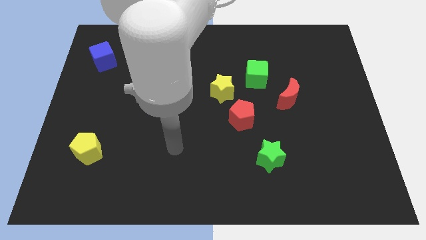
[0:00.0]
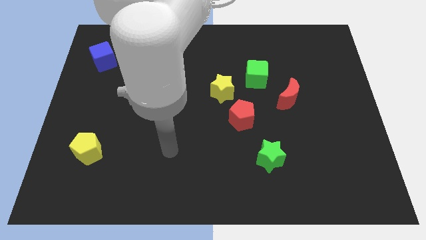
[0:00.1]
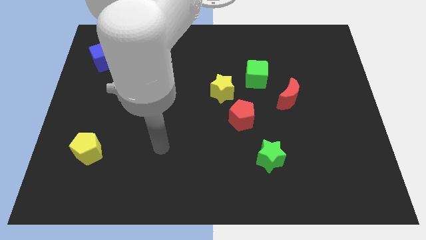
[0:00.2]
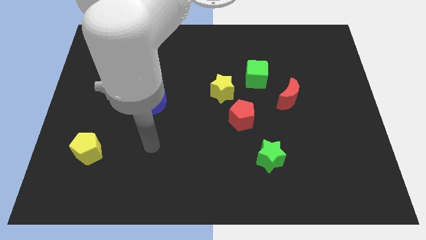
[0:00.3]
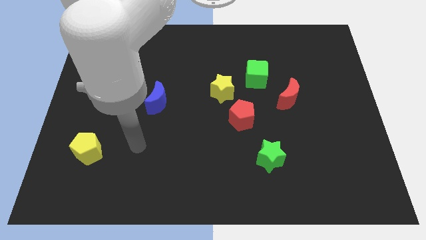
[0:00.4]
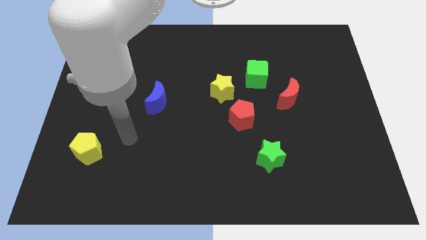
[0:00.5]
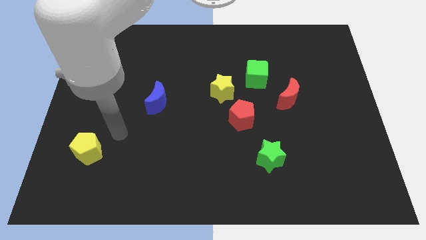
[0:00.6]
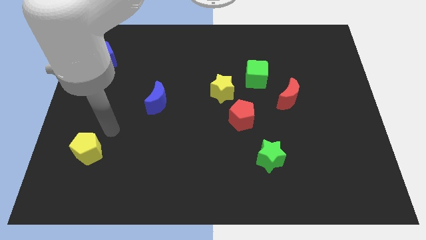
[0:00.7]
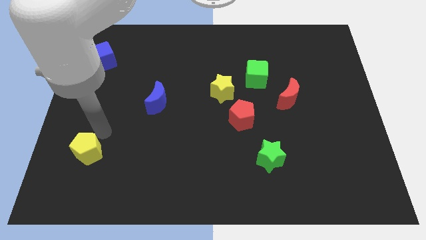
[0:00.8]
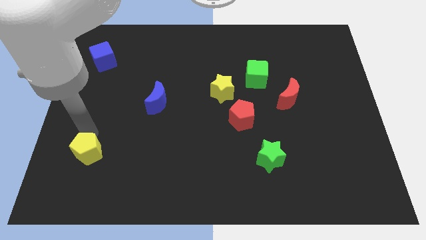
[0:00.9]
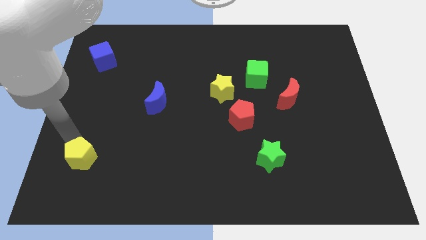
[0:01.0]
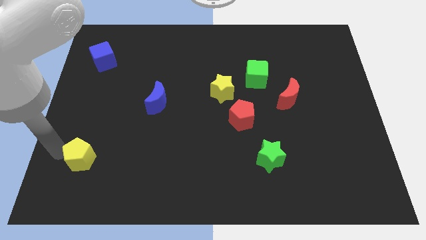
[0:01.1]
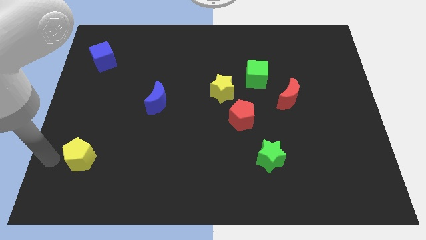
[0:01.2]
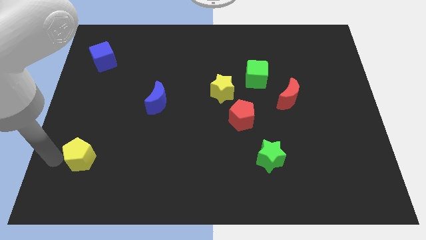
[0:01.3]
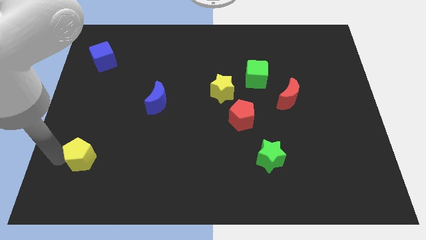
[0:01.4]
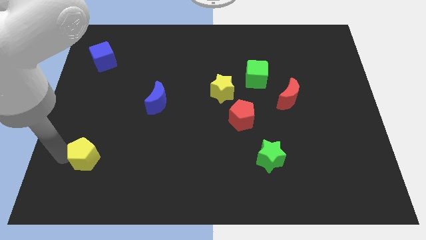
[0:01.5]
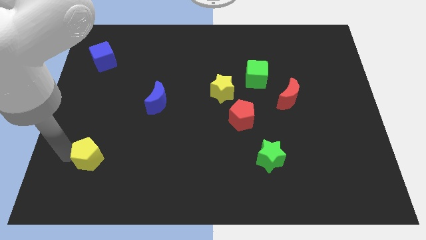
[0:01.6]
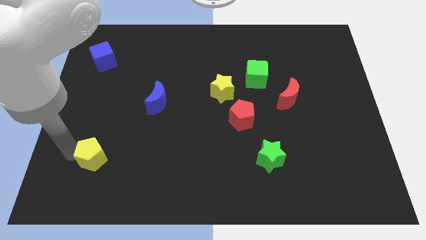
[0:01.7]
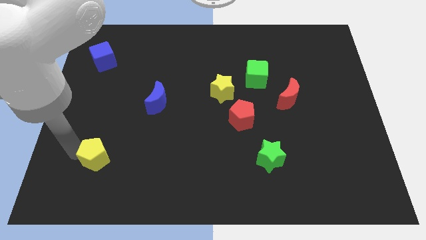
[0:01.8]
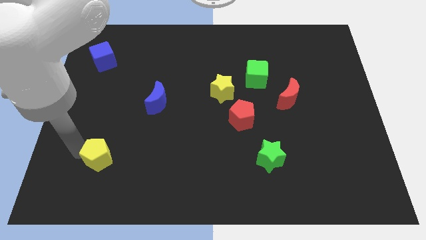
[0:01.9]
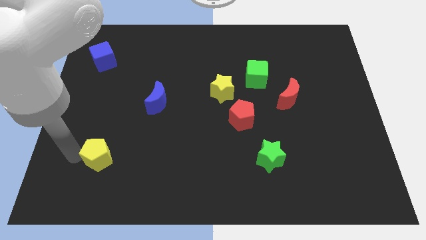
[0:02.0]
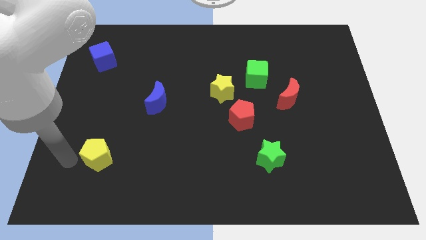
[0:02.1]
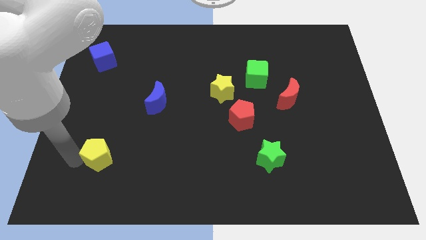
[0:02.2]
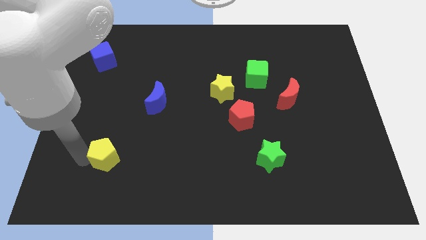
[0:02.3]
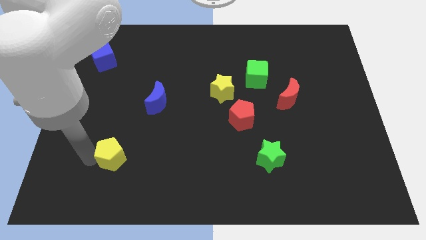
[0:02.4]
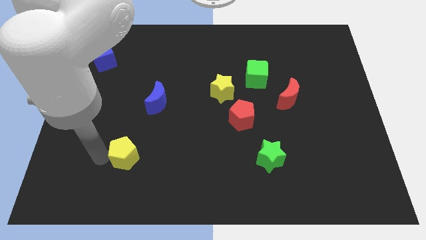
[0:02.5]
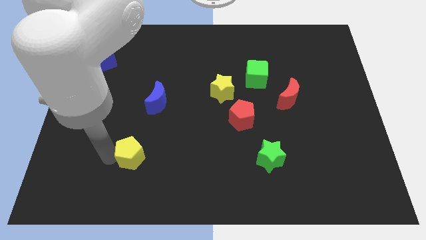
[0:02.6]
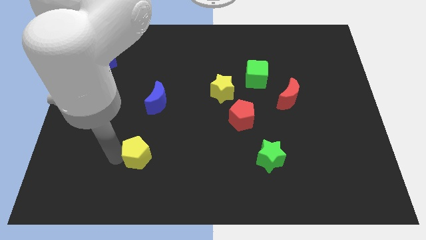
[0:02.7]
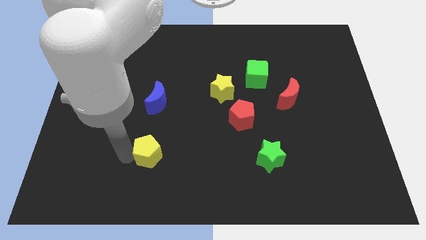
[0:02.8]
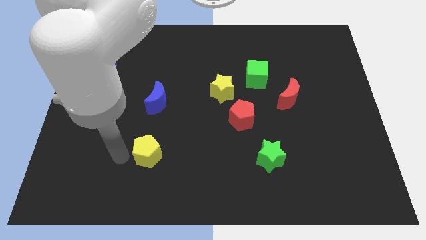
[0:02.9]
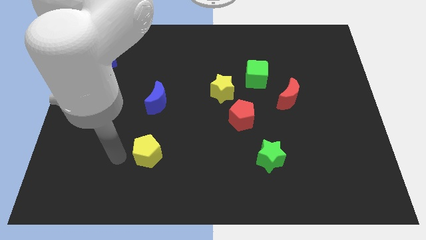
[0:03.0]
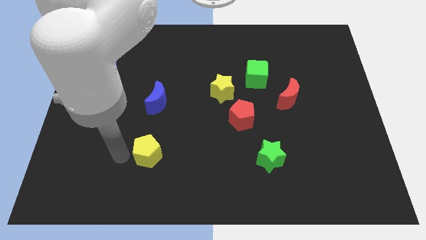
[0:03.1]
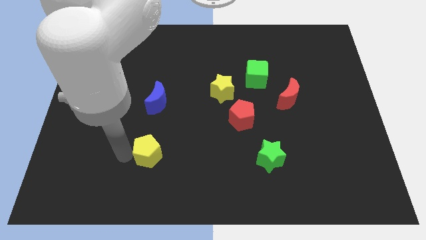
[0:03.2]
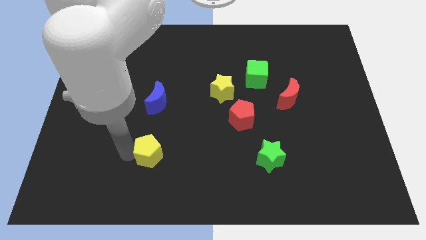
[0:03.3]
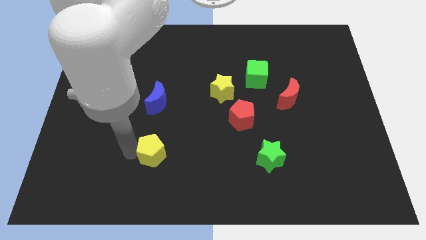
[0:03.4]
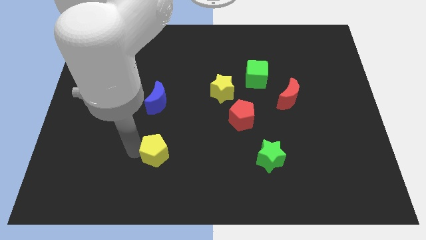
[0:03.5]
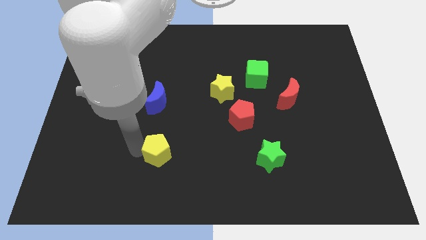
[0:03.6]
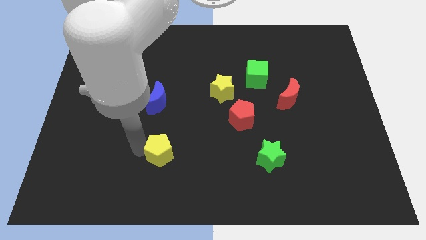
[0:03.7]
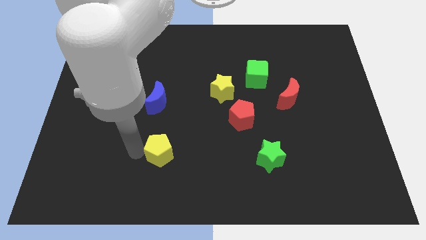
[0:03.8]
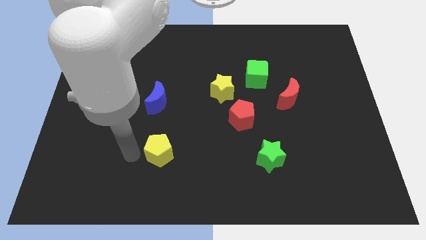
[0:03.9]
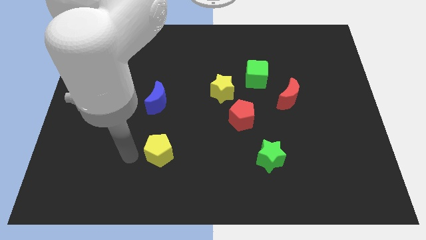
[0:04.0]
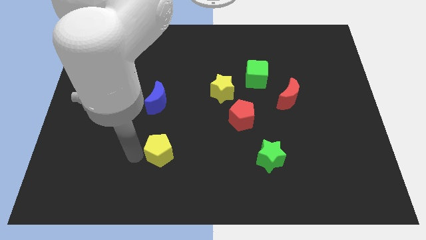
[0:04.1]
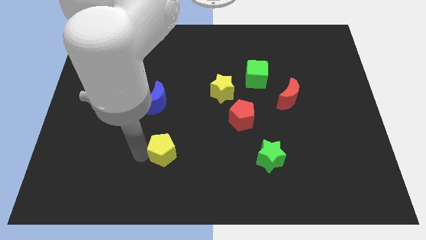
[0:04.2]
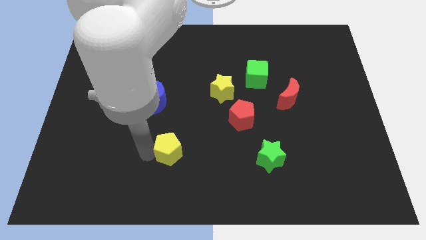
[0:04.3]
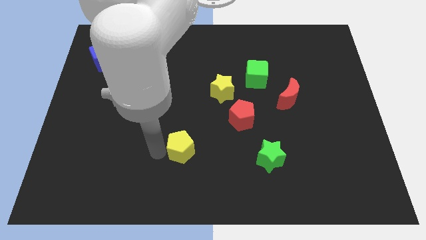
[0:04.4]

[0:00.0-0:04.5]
push the yellow pentagon to the right

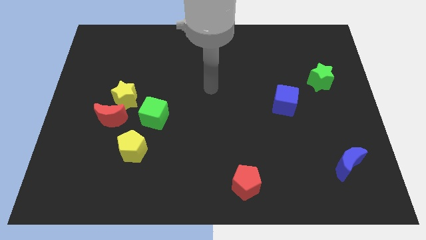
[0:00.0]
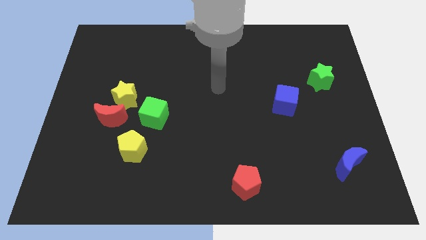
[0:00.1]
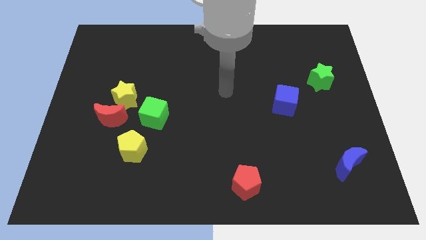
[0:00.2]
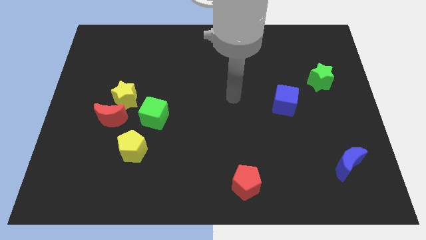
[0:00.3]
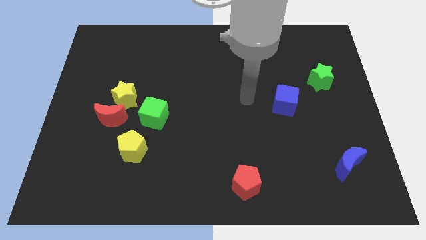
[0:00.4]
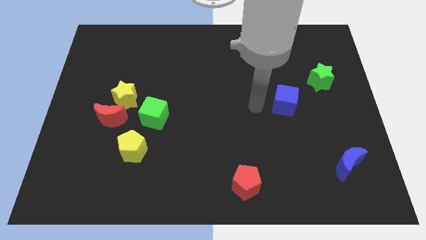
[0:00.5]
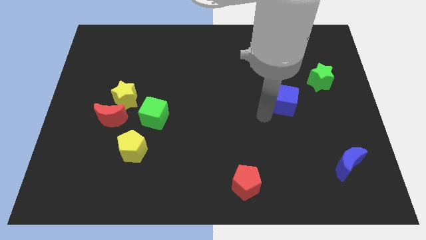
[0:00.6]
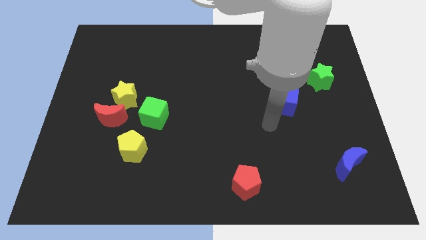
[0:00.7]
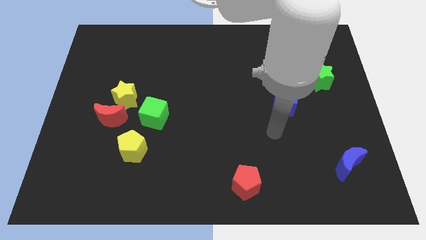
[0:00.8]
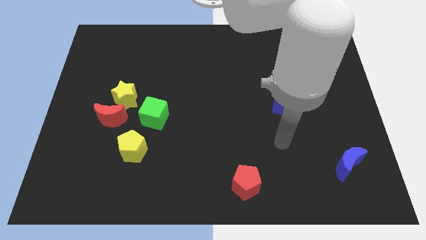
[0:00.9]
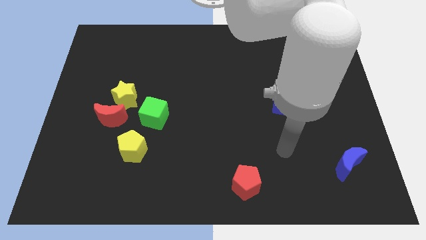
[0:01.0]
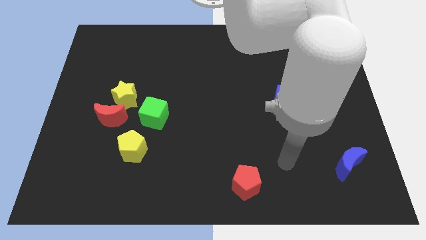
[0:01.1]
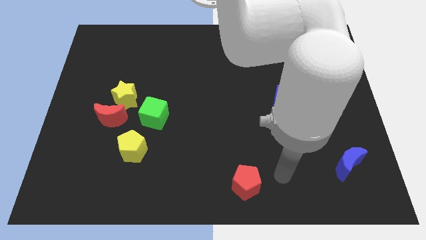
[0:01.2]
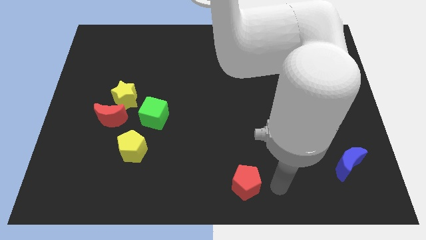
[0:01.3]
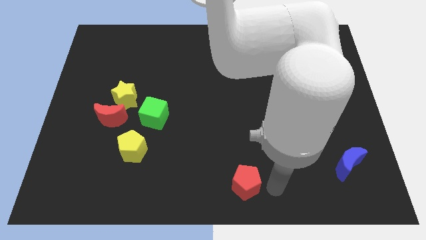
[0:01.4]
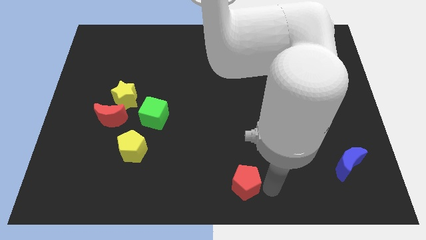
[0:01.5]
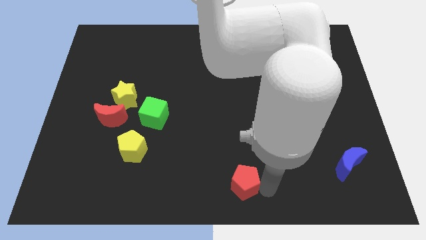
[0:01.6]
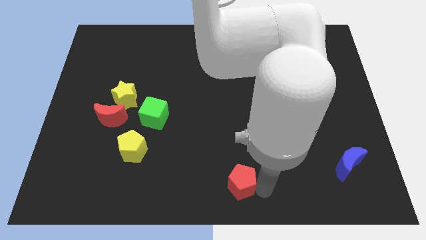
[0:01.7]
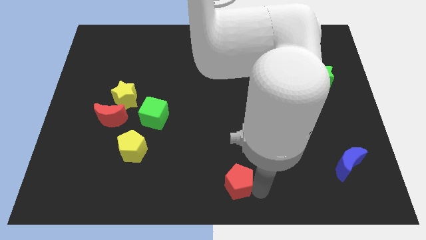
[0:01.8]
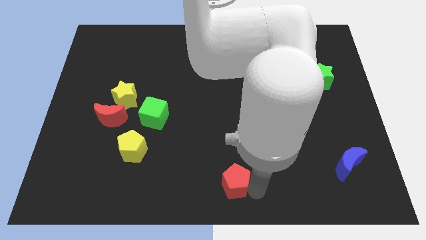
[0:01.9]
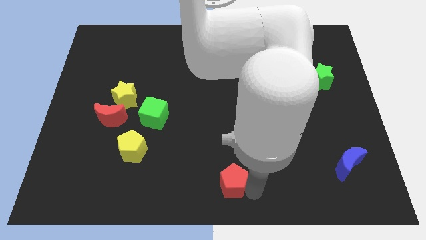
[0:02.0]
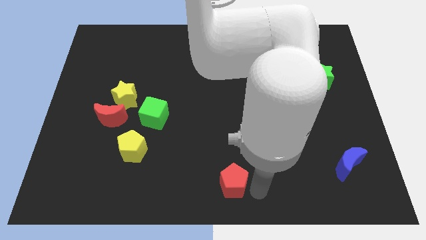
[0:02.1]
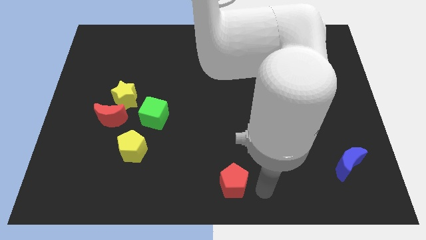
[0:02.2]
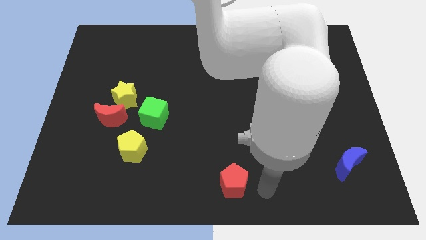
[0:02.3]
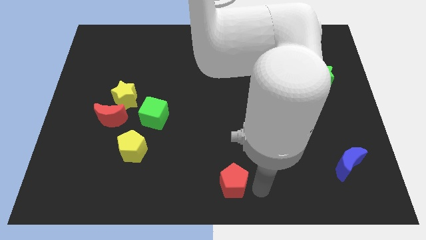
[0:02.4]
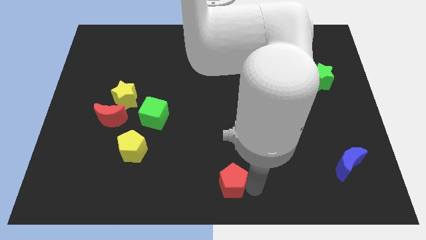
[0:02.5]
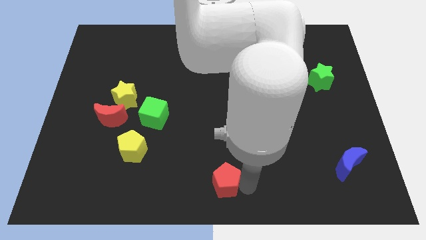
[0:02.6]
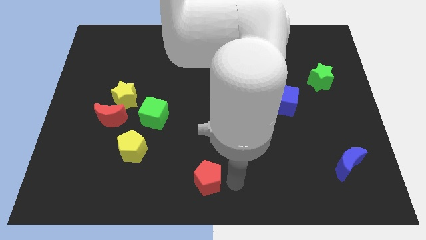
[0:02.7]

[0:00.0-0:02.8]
slightly push the red pentagon to the left

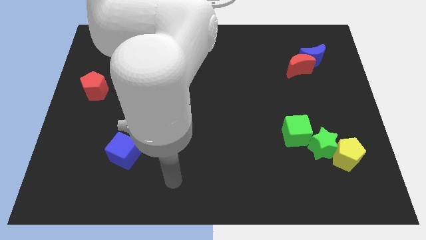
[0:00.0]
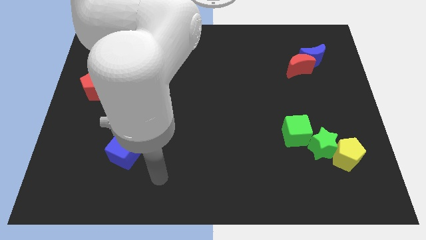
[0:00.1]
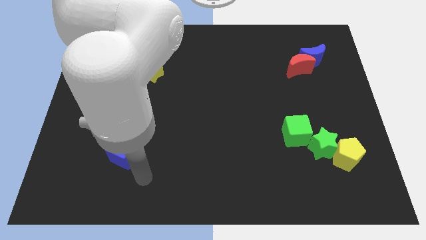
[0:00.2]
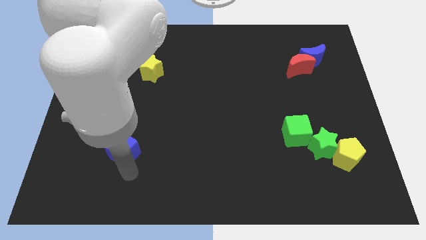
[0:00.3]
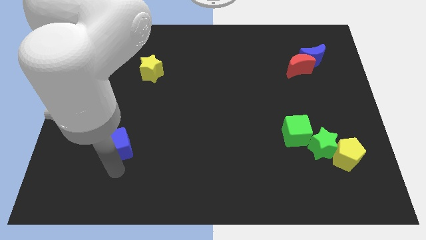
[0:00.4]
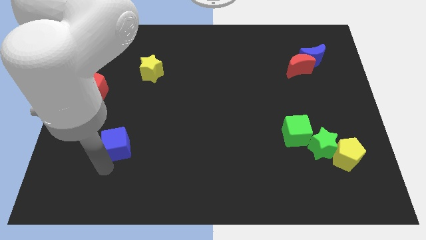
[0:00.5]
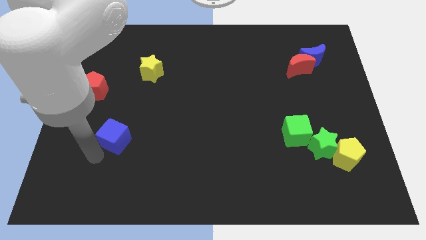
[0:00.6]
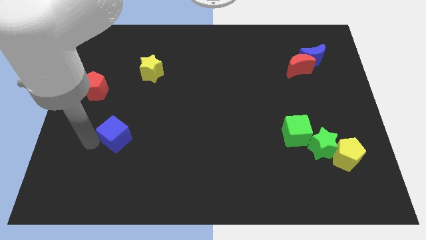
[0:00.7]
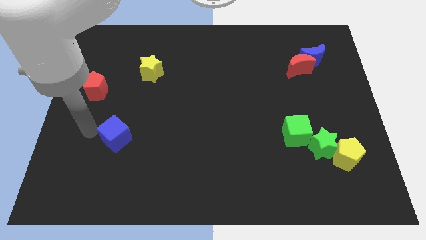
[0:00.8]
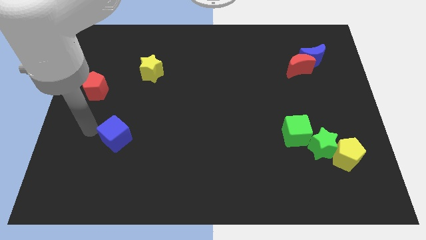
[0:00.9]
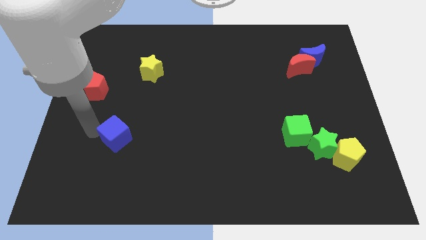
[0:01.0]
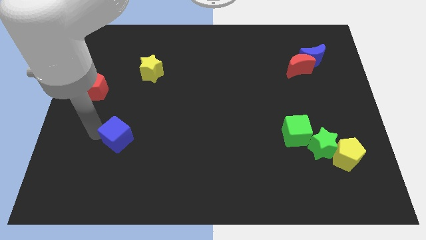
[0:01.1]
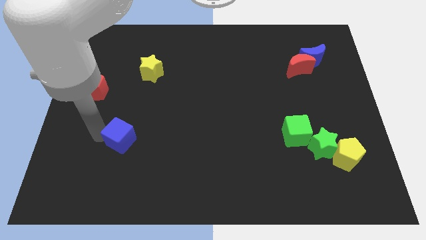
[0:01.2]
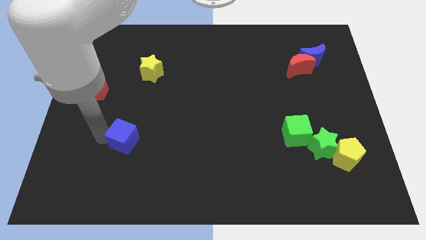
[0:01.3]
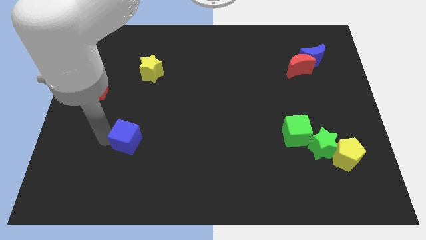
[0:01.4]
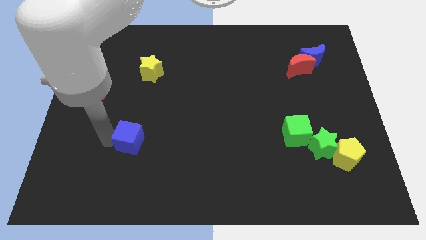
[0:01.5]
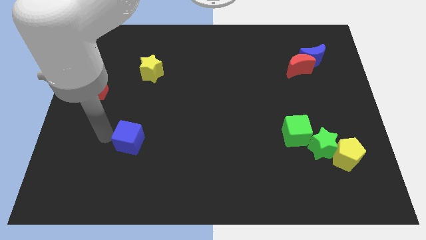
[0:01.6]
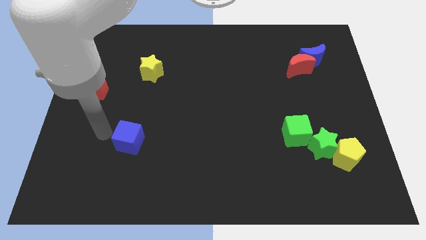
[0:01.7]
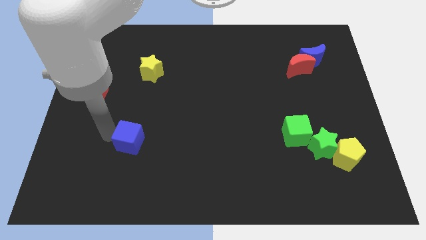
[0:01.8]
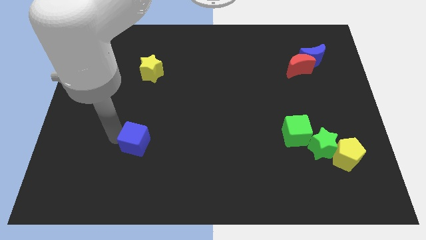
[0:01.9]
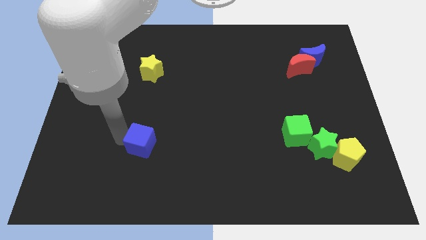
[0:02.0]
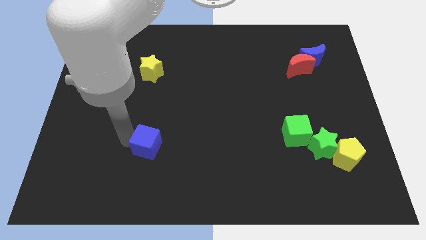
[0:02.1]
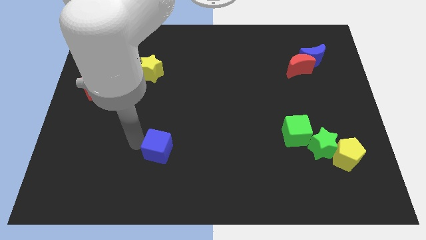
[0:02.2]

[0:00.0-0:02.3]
move the blue cube to the right somewhat
